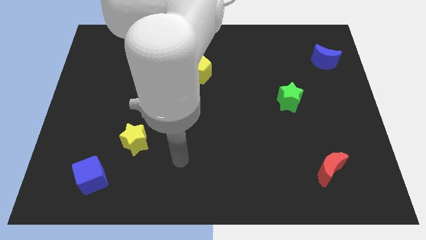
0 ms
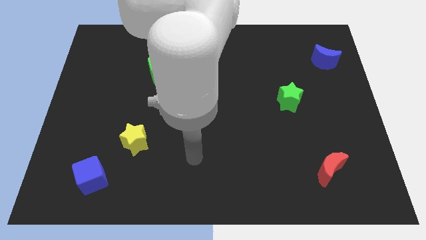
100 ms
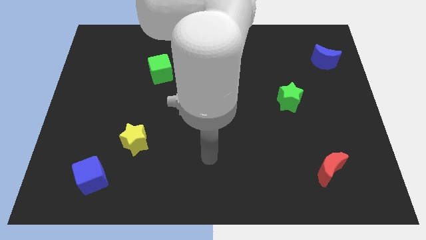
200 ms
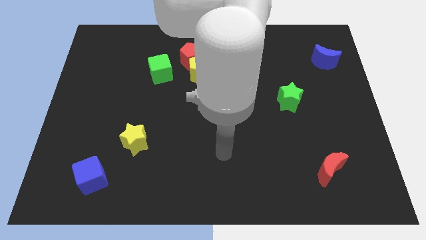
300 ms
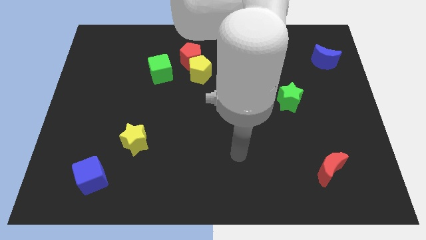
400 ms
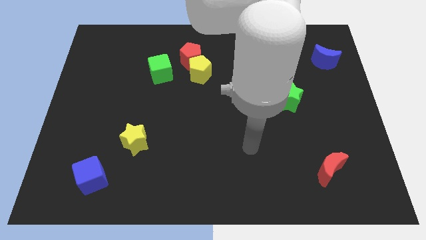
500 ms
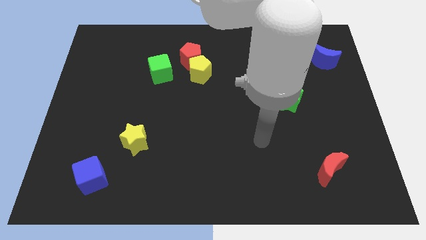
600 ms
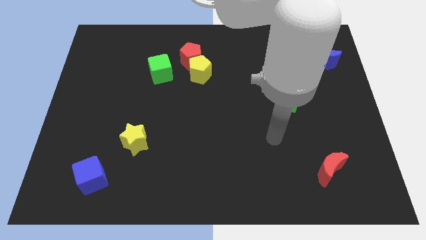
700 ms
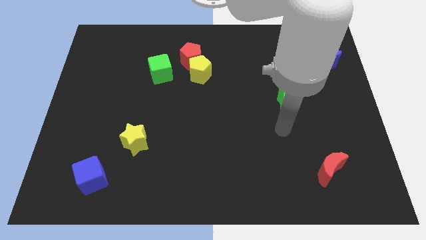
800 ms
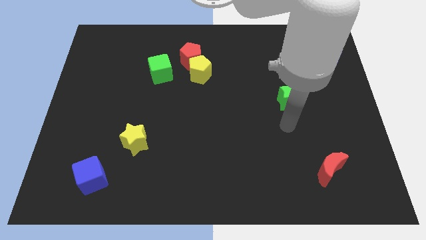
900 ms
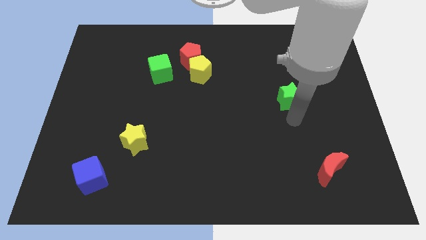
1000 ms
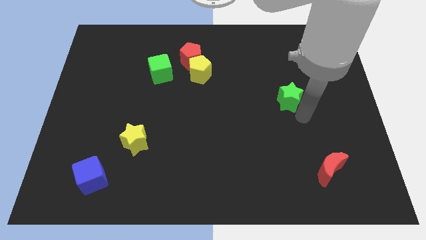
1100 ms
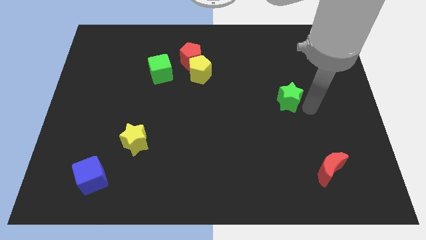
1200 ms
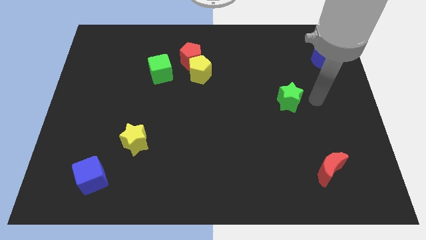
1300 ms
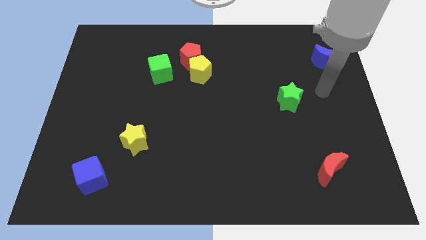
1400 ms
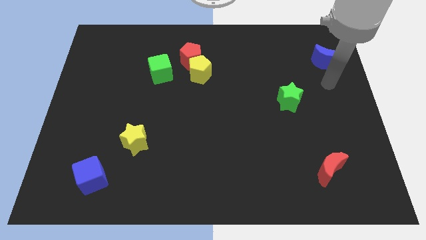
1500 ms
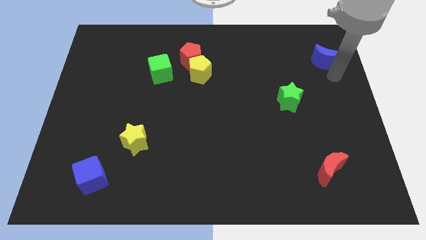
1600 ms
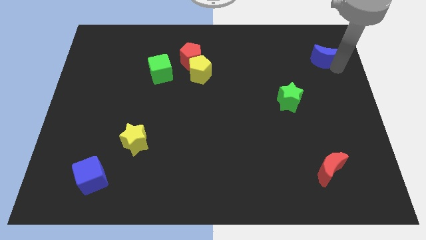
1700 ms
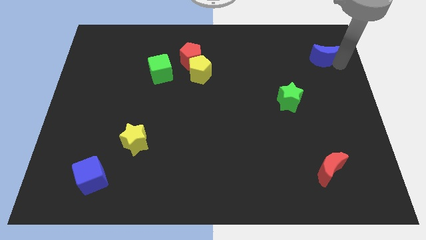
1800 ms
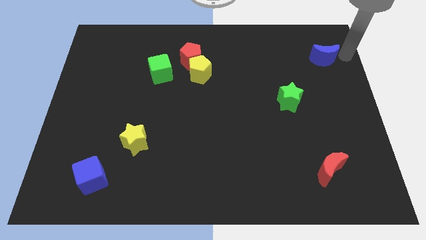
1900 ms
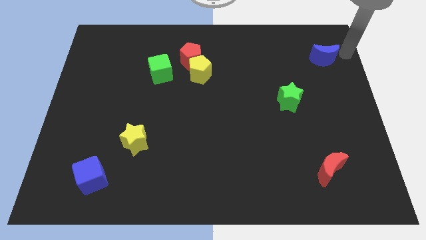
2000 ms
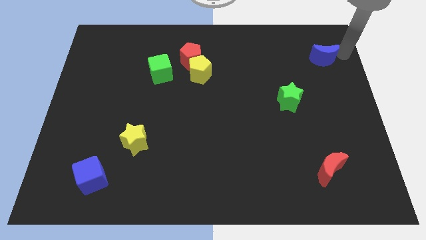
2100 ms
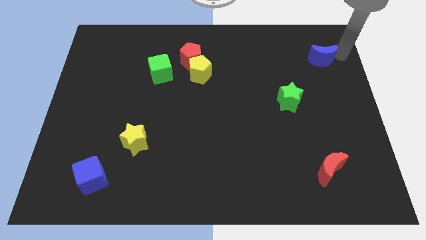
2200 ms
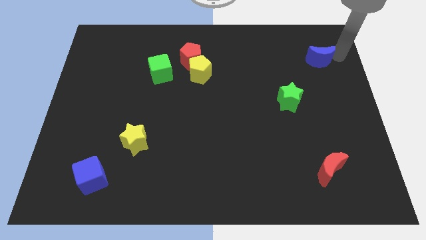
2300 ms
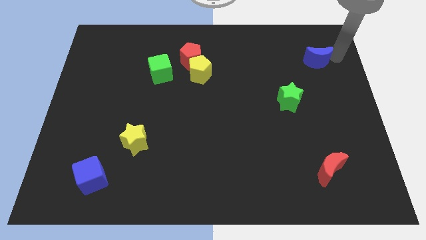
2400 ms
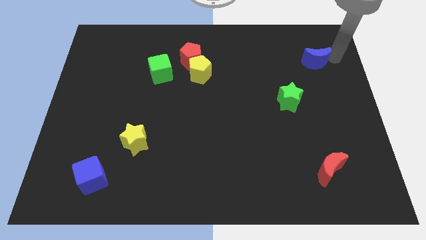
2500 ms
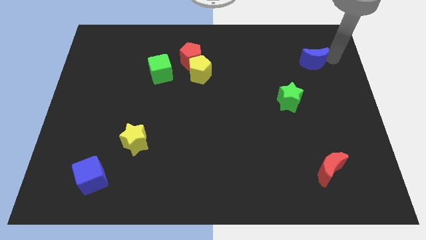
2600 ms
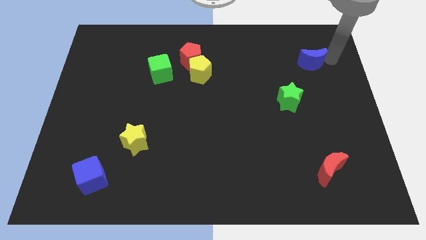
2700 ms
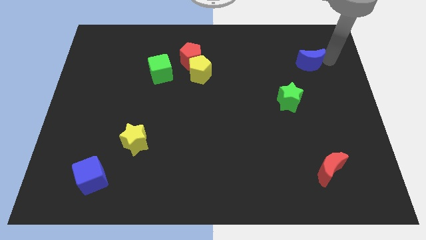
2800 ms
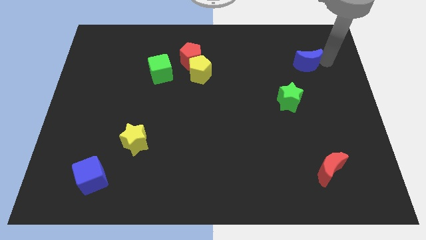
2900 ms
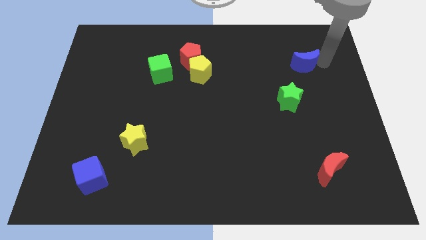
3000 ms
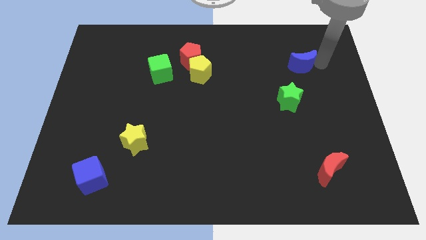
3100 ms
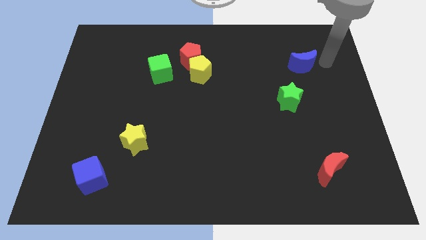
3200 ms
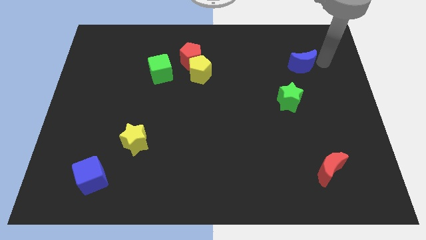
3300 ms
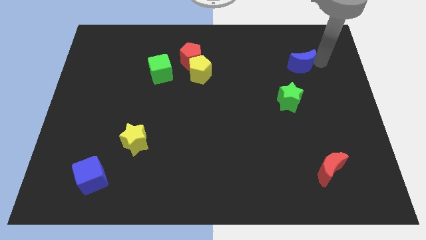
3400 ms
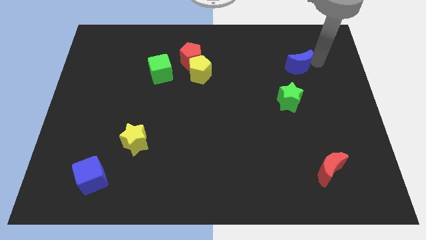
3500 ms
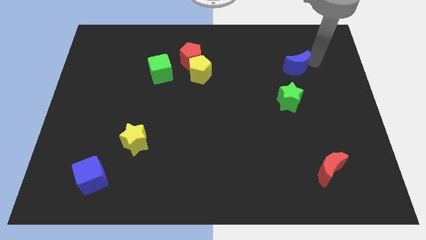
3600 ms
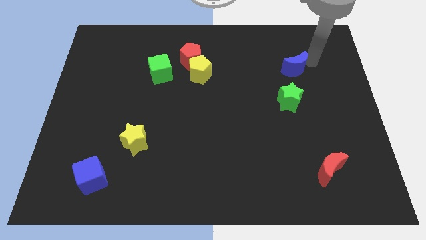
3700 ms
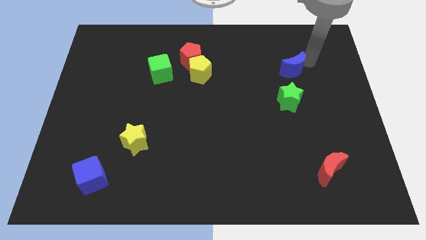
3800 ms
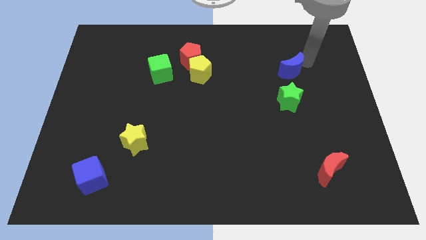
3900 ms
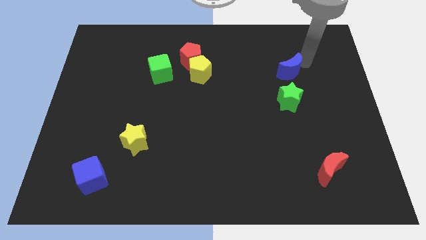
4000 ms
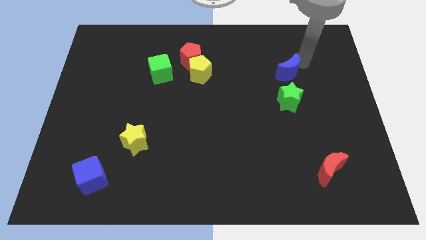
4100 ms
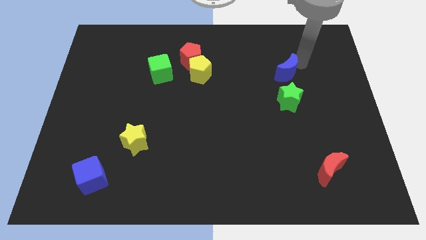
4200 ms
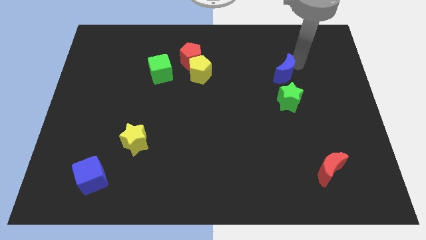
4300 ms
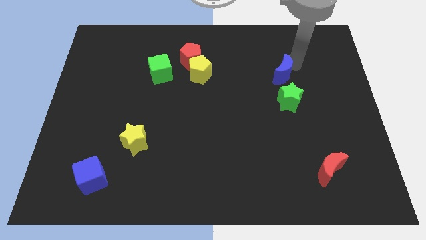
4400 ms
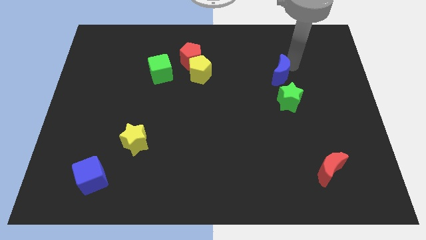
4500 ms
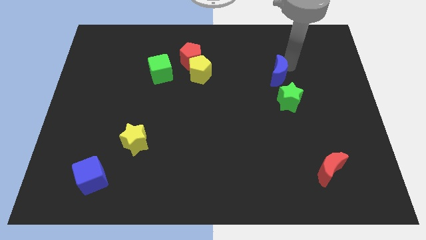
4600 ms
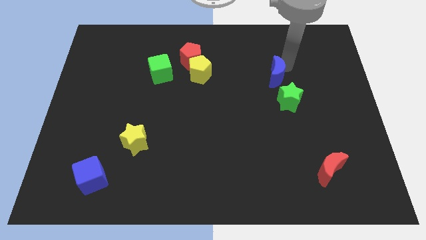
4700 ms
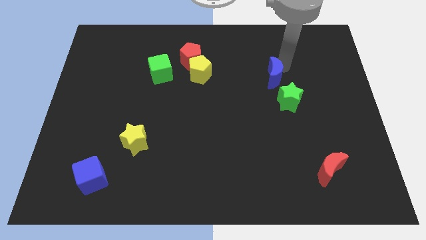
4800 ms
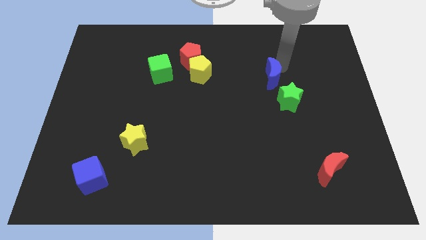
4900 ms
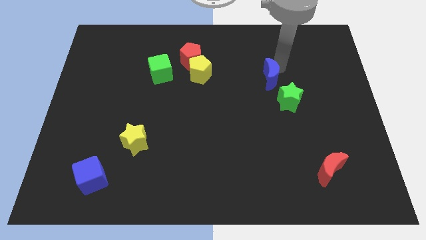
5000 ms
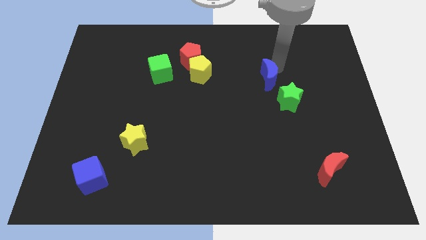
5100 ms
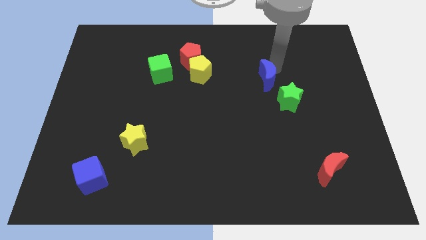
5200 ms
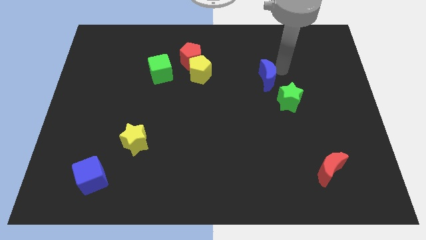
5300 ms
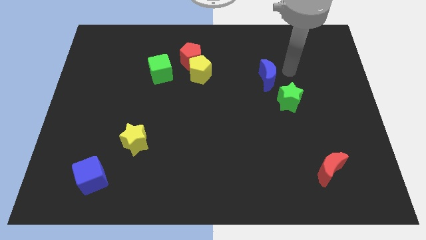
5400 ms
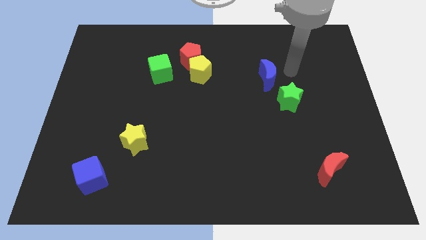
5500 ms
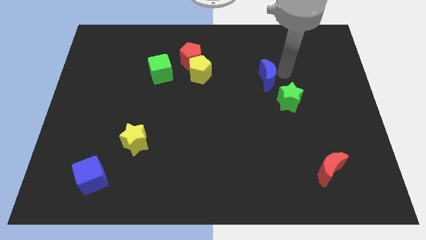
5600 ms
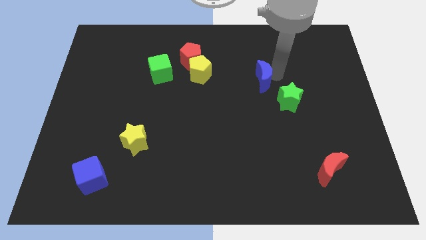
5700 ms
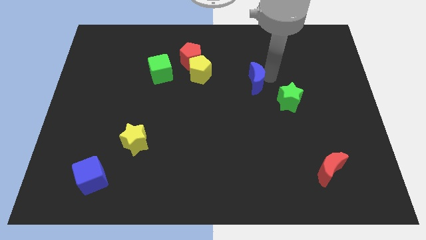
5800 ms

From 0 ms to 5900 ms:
put the blue moon to the center

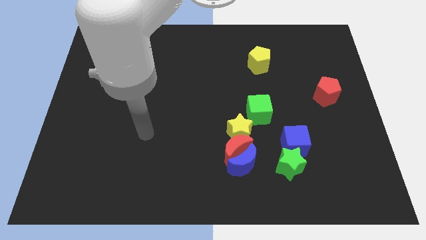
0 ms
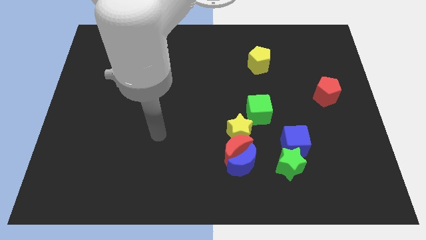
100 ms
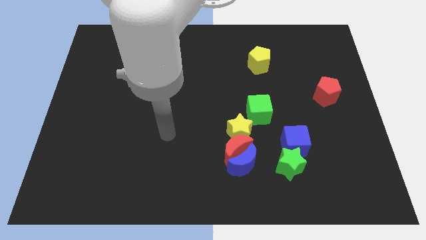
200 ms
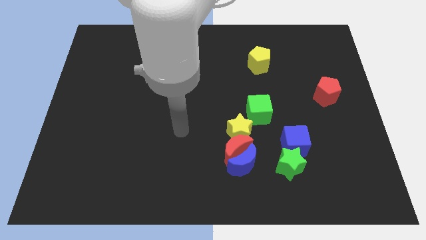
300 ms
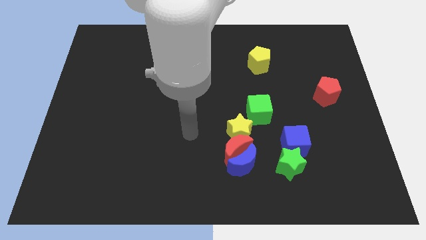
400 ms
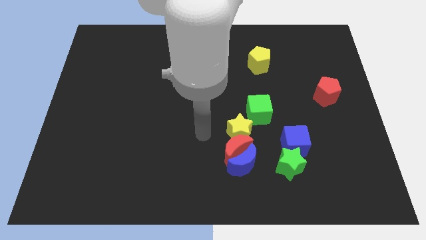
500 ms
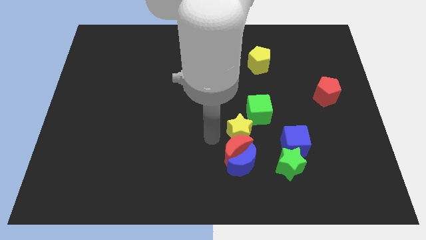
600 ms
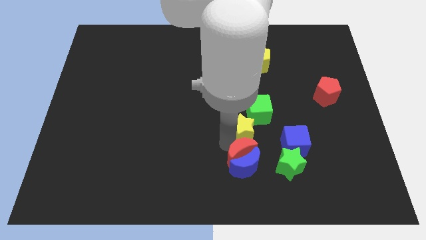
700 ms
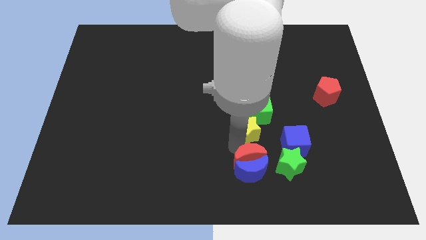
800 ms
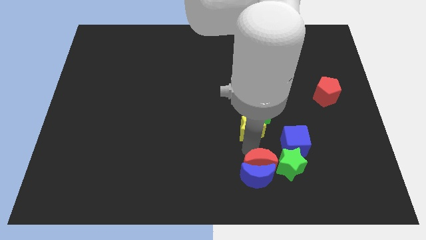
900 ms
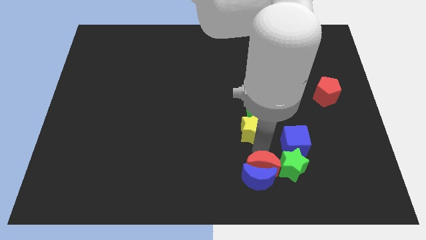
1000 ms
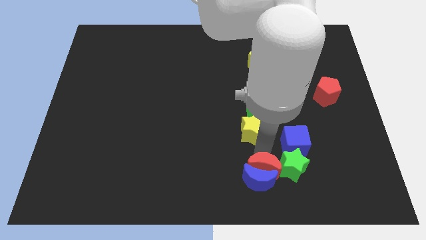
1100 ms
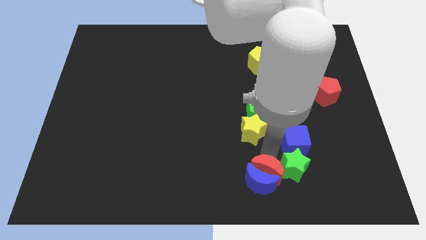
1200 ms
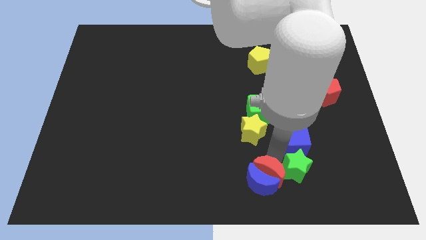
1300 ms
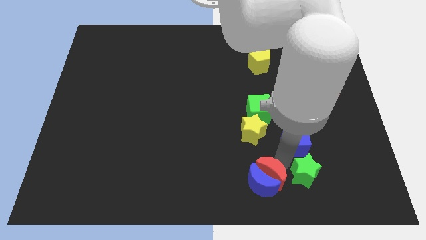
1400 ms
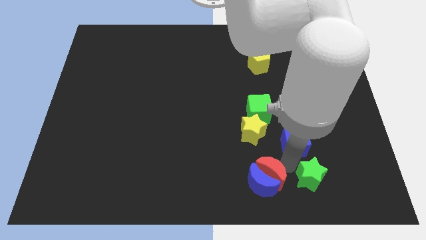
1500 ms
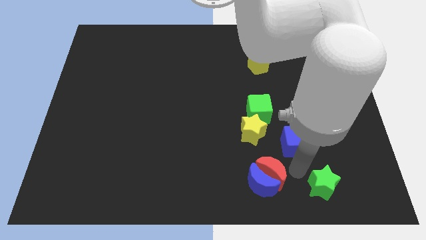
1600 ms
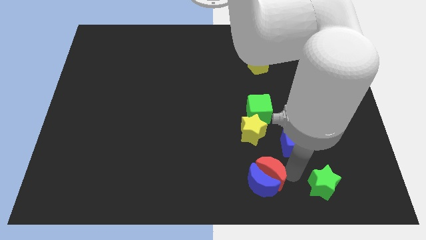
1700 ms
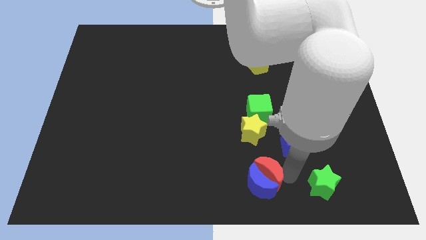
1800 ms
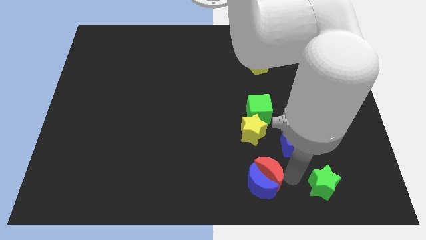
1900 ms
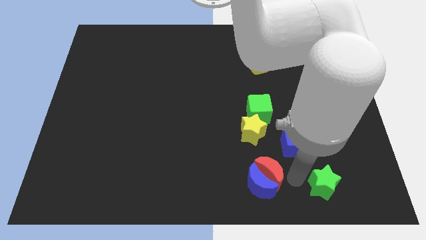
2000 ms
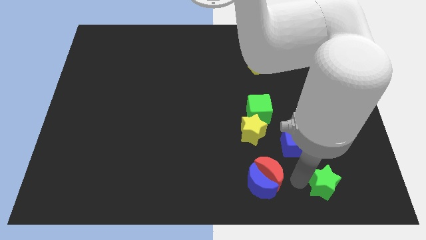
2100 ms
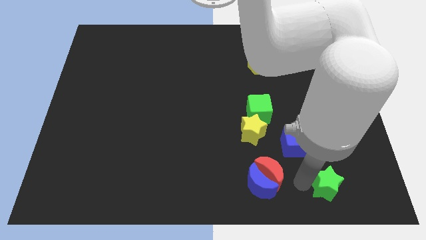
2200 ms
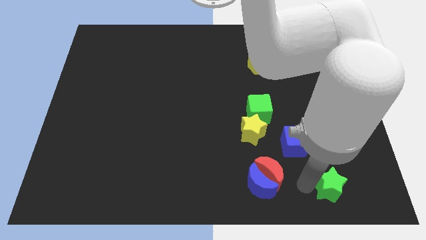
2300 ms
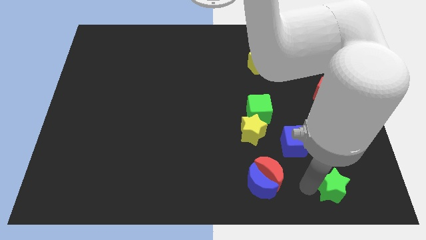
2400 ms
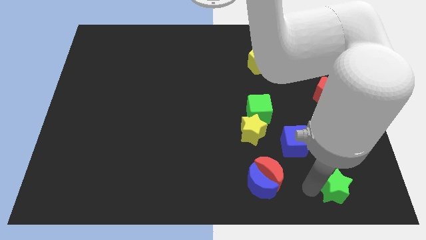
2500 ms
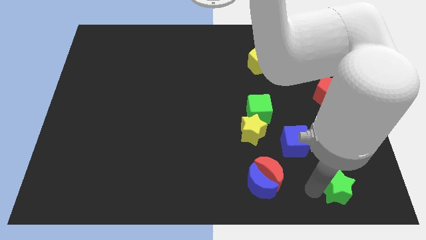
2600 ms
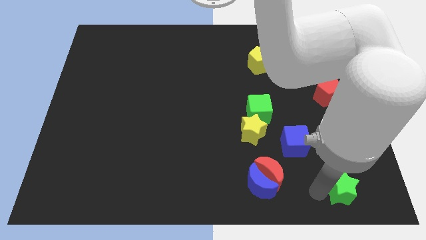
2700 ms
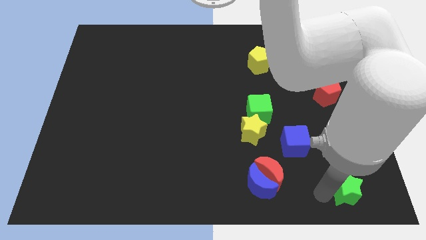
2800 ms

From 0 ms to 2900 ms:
push the green star to the bottom right corner
